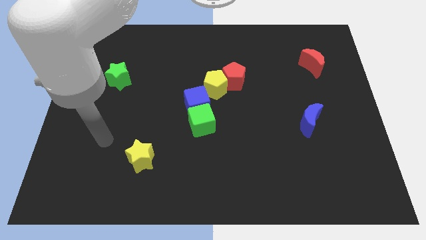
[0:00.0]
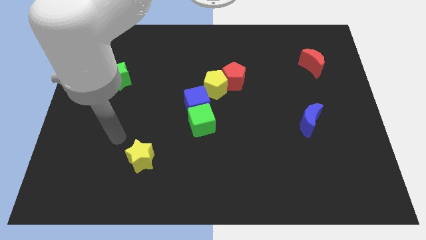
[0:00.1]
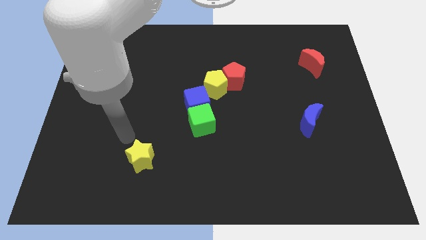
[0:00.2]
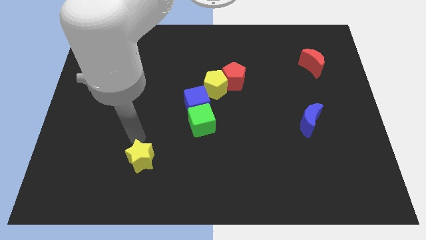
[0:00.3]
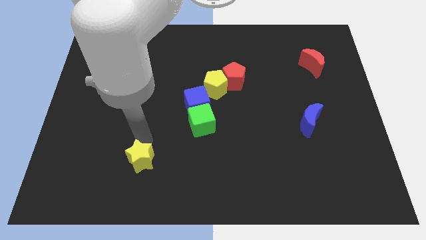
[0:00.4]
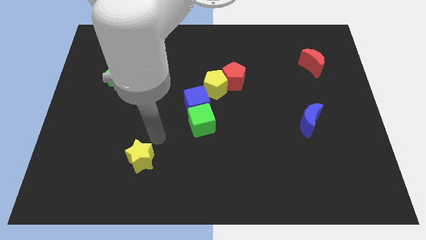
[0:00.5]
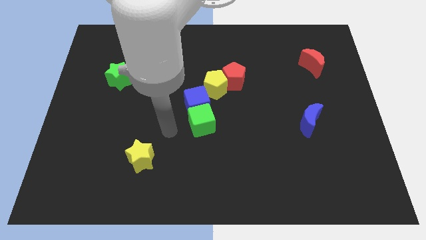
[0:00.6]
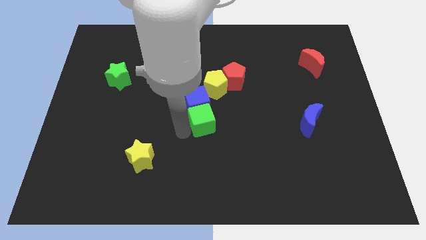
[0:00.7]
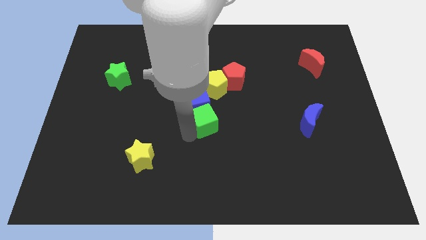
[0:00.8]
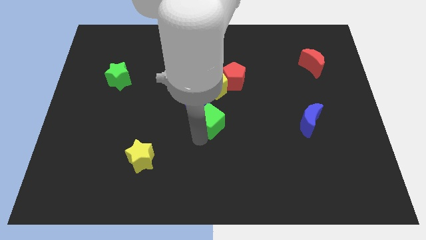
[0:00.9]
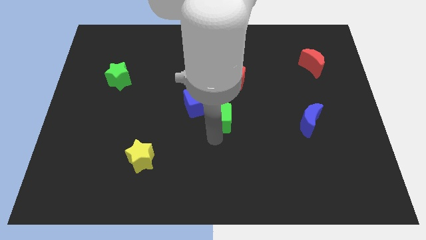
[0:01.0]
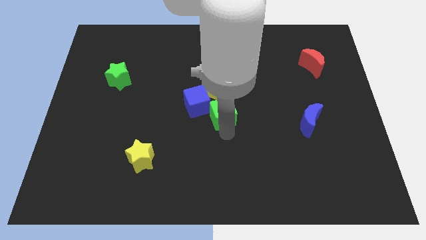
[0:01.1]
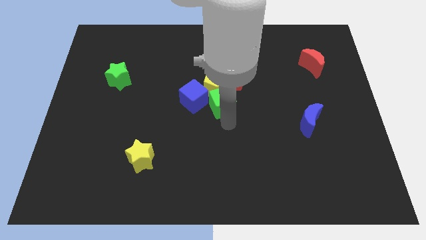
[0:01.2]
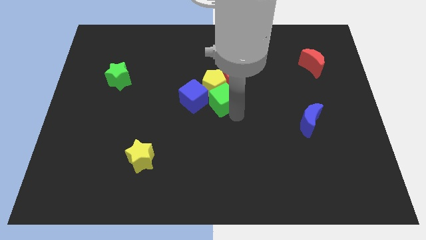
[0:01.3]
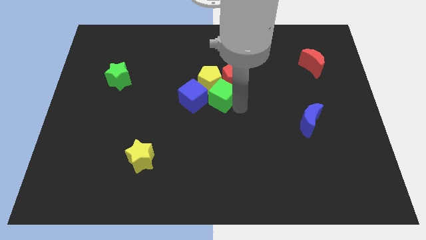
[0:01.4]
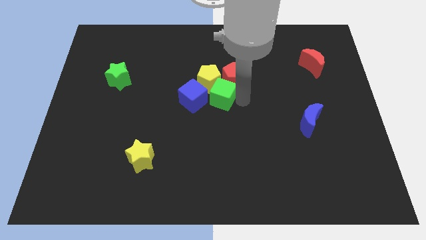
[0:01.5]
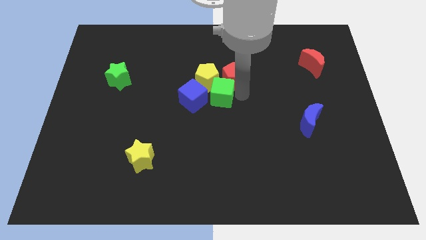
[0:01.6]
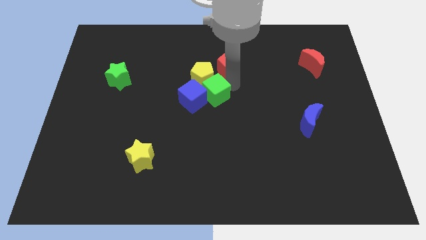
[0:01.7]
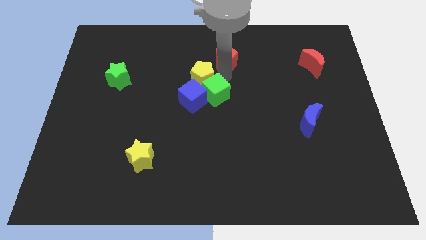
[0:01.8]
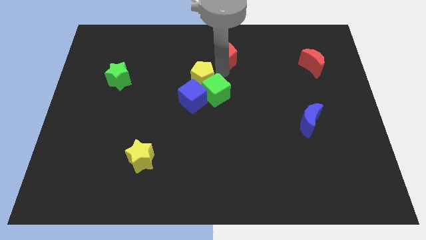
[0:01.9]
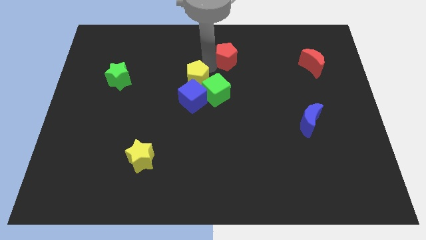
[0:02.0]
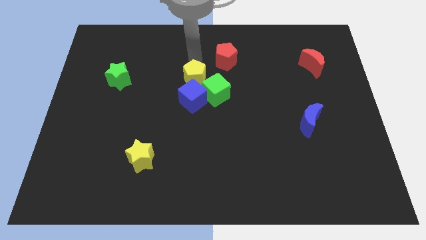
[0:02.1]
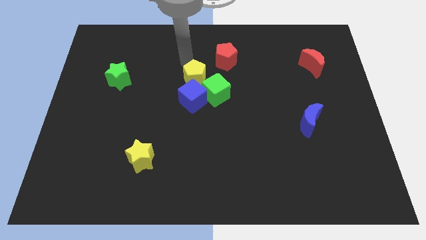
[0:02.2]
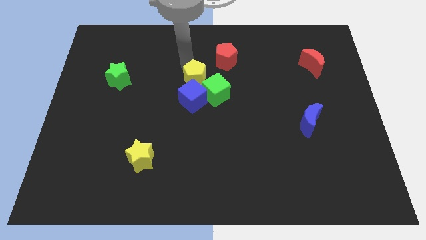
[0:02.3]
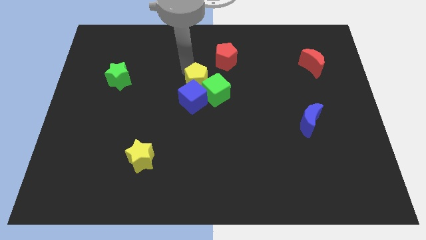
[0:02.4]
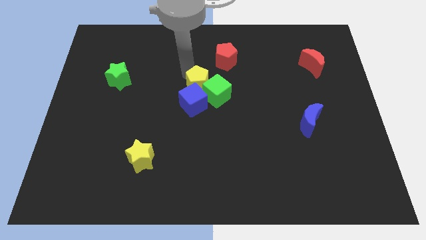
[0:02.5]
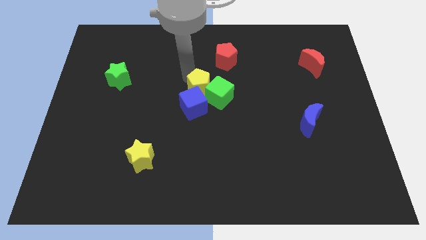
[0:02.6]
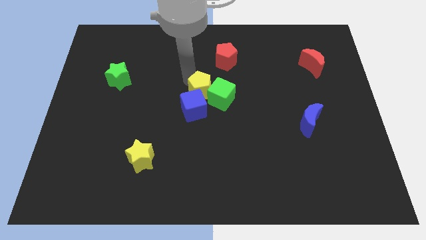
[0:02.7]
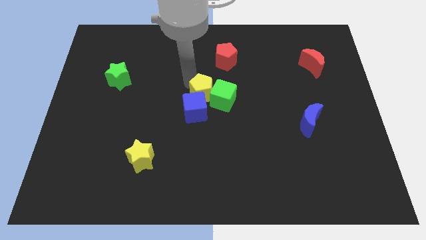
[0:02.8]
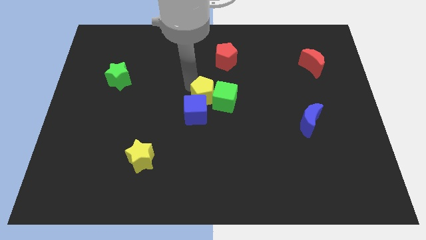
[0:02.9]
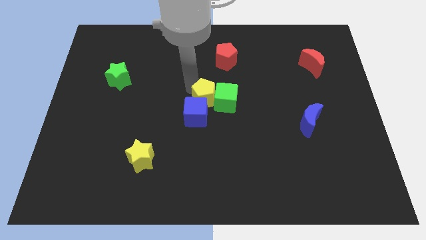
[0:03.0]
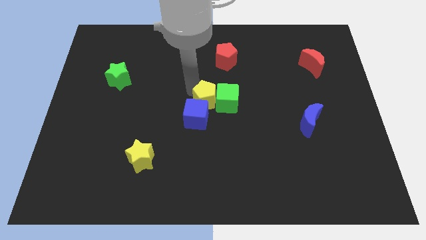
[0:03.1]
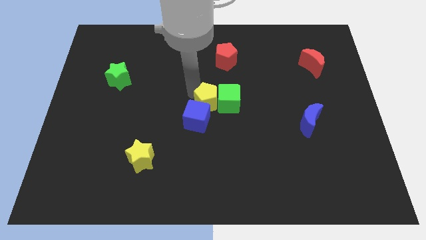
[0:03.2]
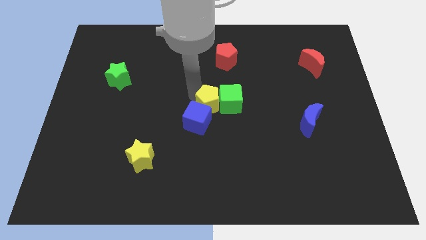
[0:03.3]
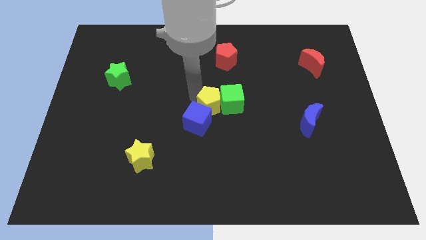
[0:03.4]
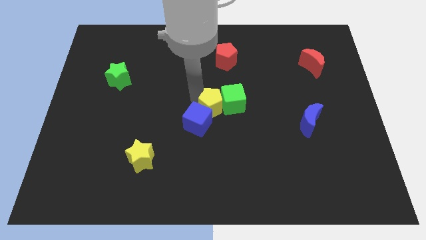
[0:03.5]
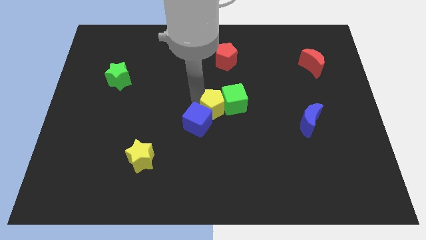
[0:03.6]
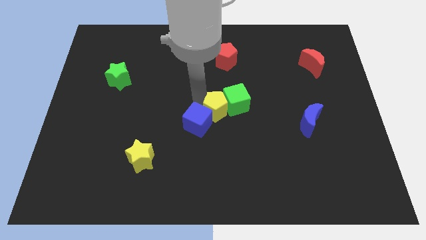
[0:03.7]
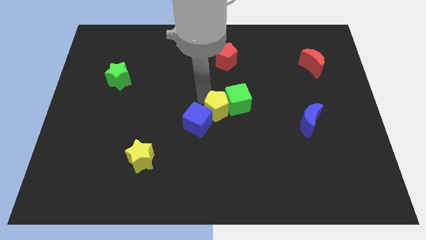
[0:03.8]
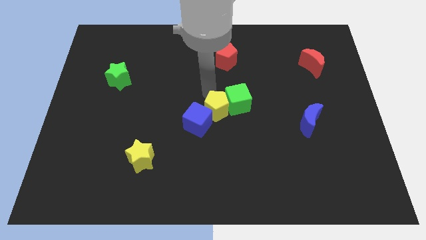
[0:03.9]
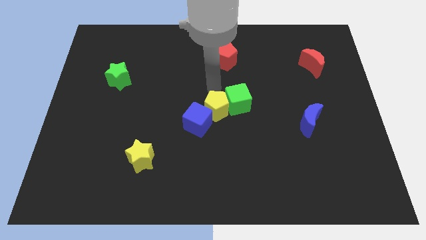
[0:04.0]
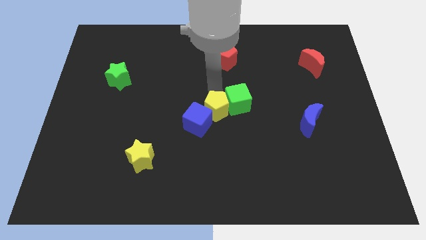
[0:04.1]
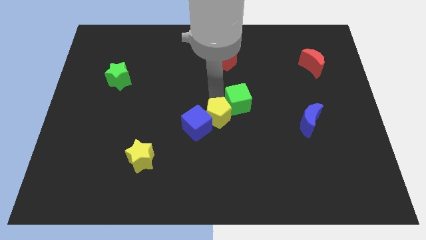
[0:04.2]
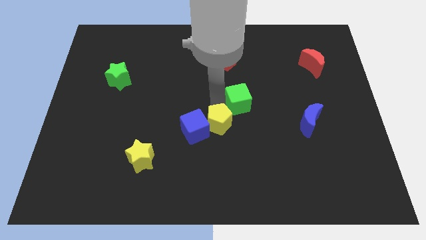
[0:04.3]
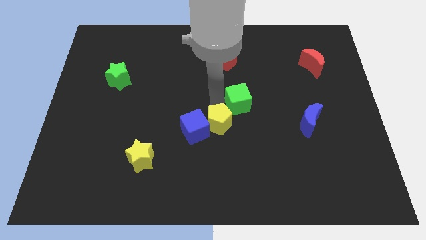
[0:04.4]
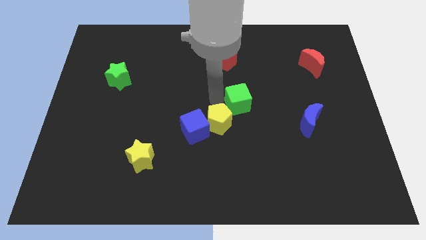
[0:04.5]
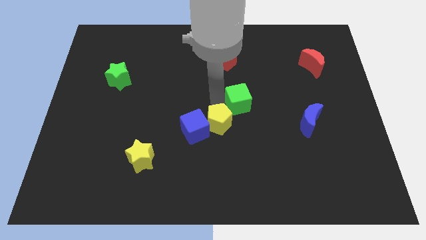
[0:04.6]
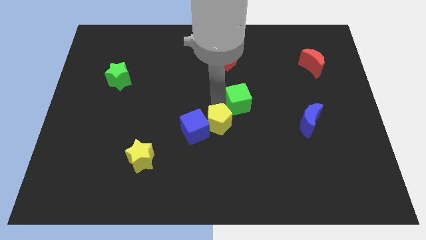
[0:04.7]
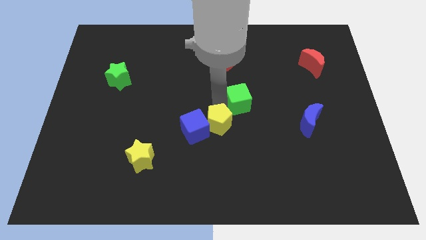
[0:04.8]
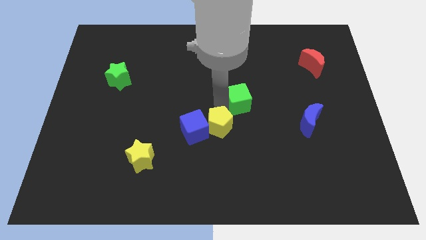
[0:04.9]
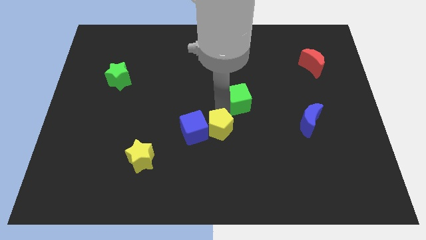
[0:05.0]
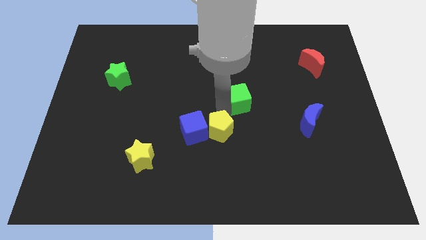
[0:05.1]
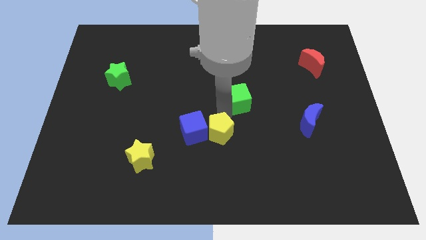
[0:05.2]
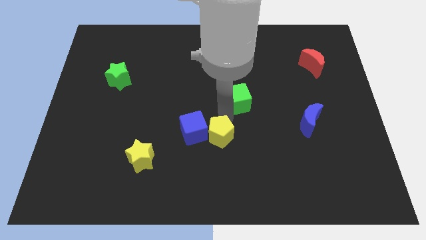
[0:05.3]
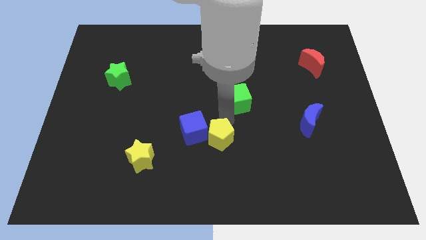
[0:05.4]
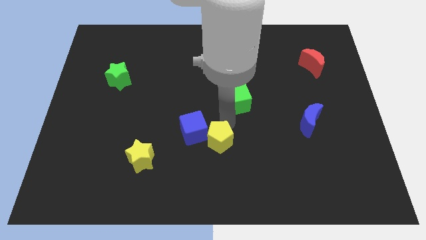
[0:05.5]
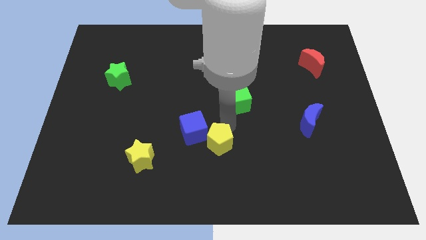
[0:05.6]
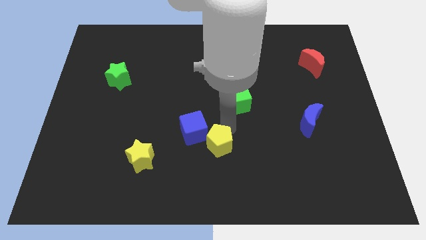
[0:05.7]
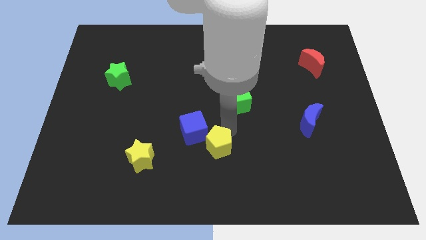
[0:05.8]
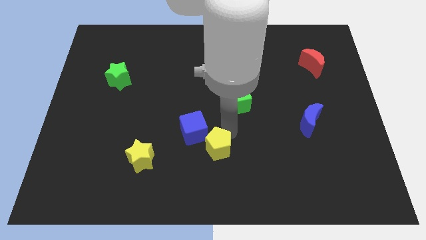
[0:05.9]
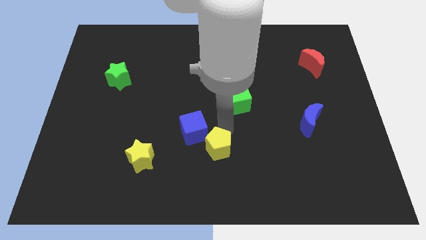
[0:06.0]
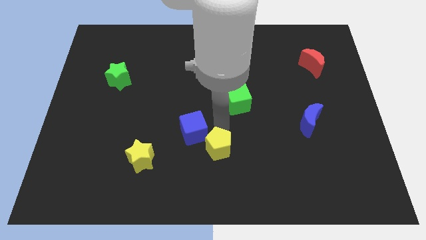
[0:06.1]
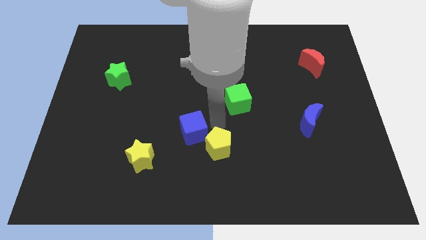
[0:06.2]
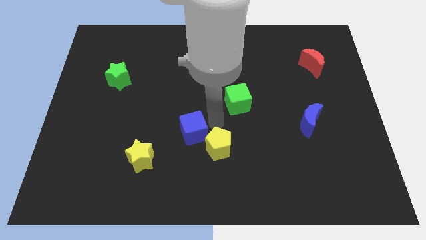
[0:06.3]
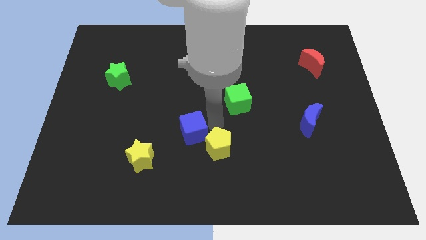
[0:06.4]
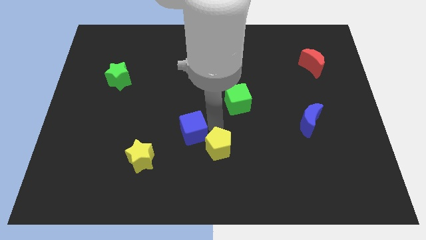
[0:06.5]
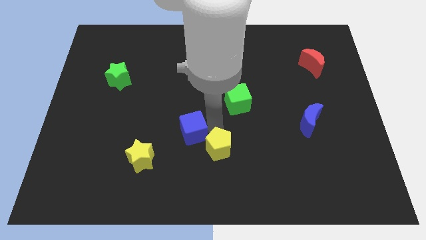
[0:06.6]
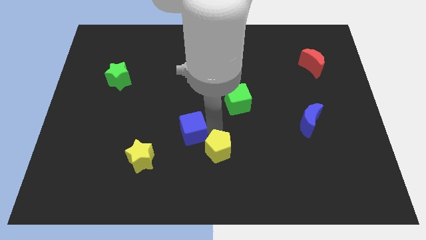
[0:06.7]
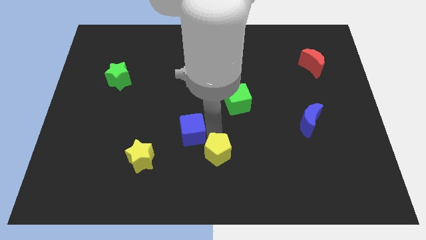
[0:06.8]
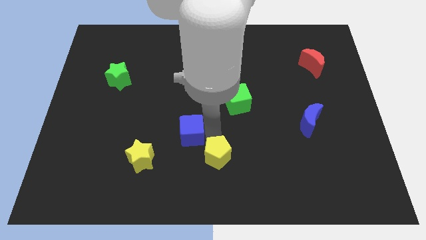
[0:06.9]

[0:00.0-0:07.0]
move the yellow pentagon to the bottom side
